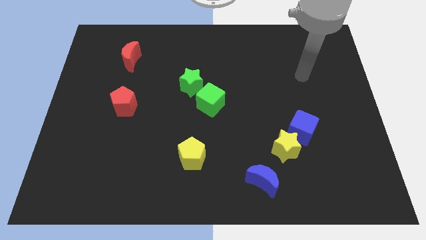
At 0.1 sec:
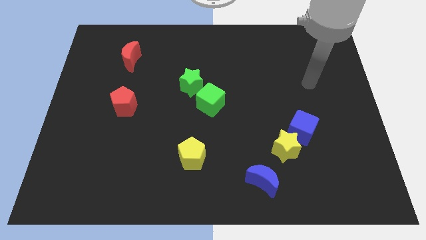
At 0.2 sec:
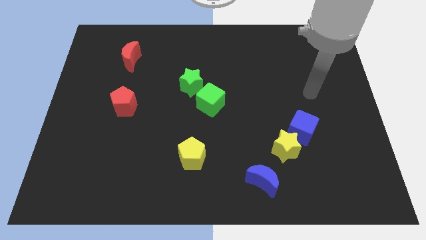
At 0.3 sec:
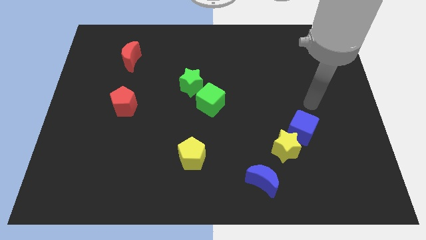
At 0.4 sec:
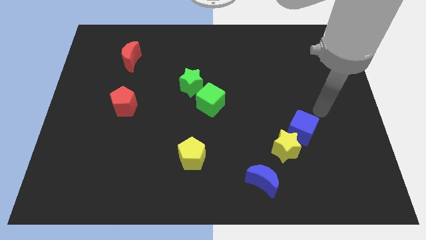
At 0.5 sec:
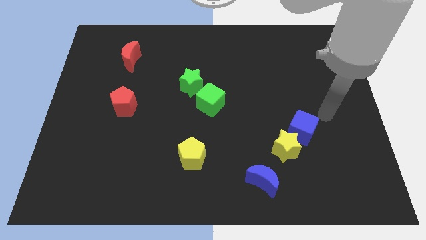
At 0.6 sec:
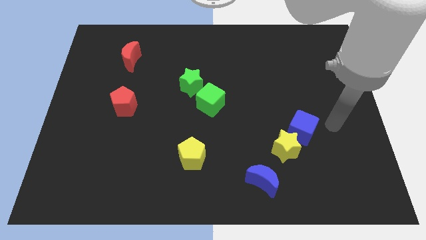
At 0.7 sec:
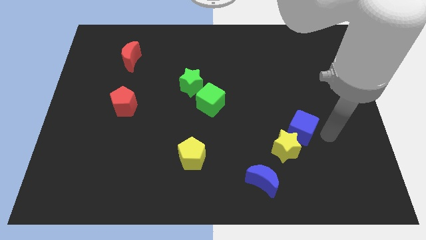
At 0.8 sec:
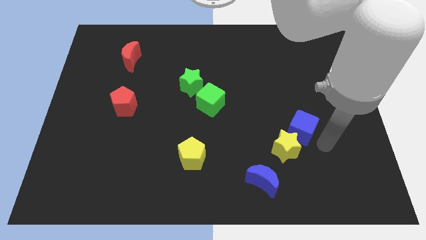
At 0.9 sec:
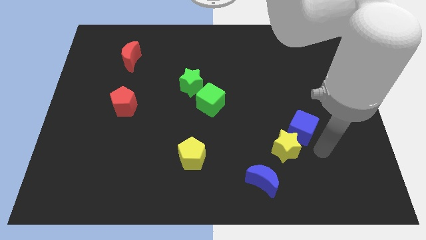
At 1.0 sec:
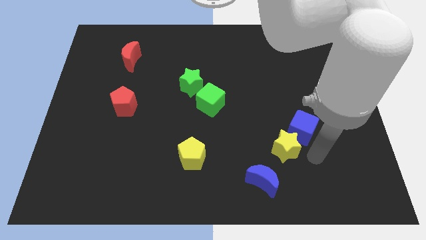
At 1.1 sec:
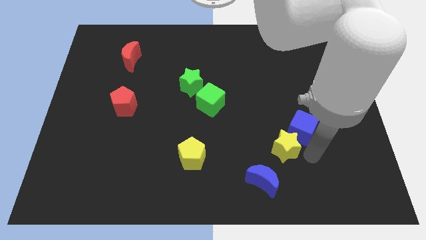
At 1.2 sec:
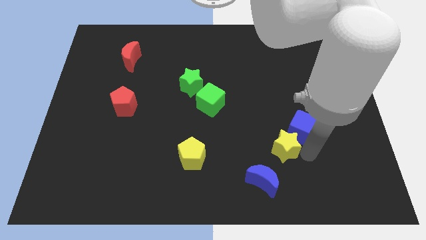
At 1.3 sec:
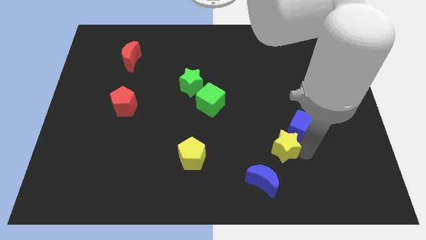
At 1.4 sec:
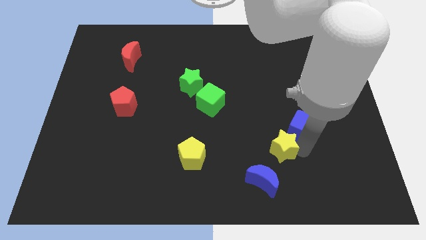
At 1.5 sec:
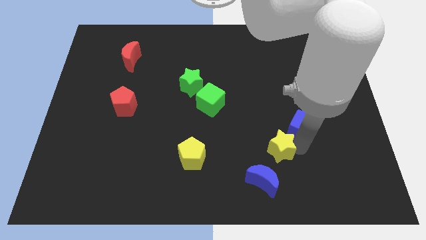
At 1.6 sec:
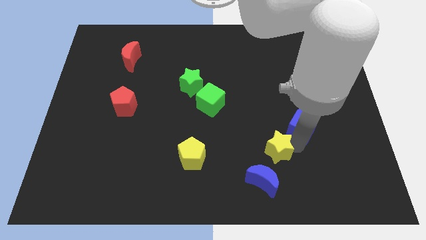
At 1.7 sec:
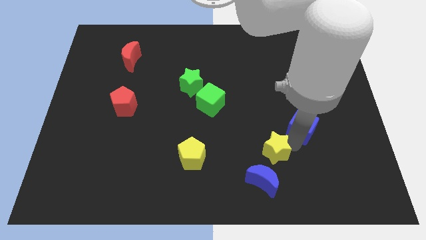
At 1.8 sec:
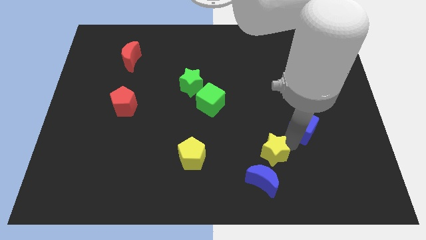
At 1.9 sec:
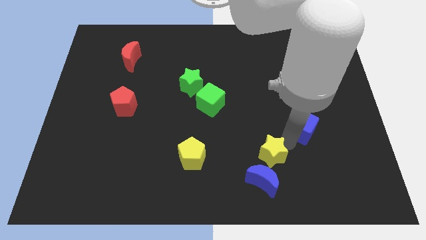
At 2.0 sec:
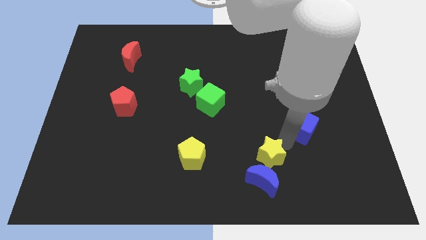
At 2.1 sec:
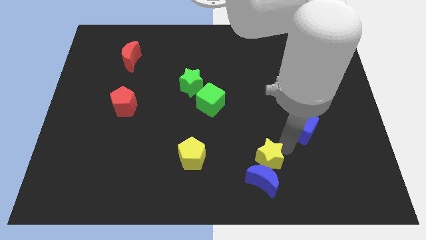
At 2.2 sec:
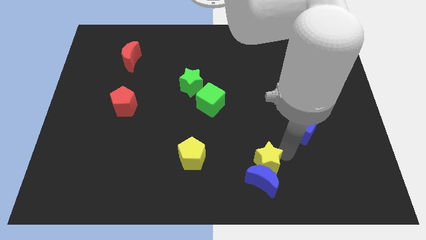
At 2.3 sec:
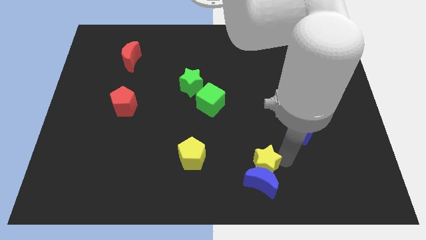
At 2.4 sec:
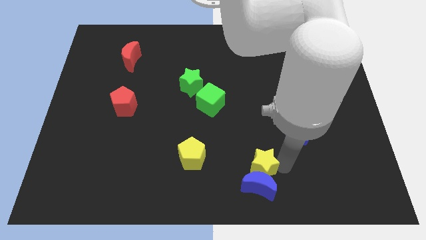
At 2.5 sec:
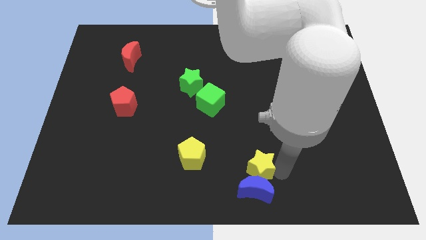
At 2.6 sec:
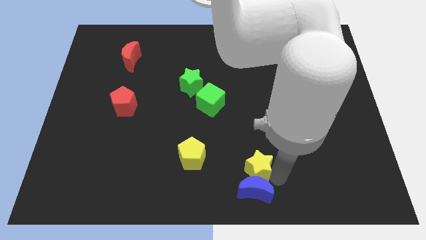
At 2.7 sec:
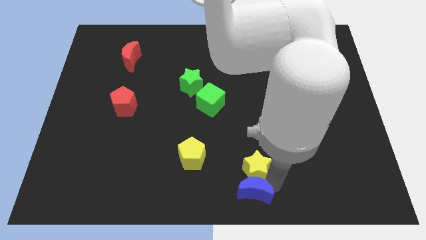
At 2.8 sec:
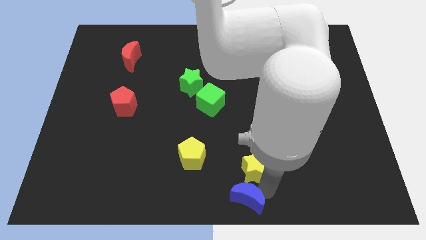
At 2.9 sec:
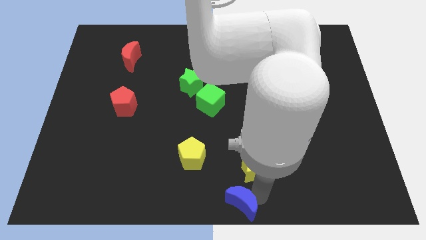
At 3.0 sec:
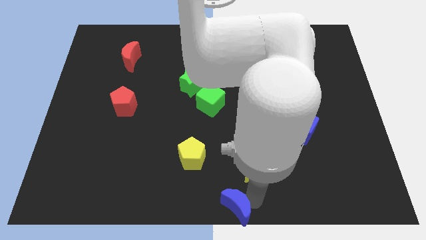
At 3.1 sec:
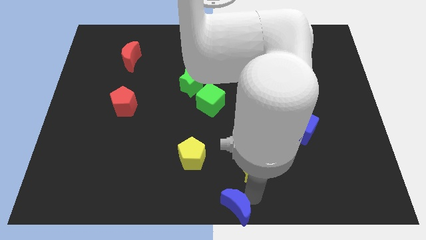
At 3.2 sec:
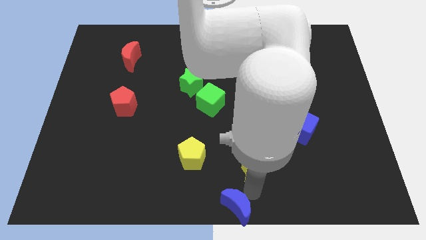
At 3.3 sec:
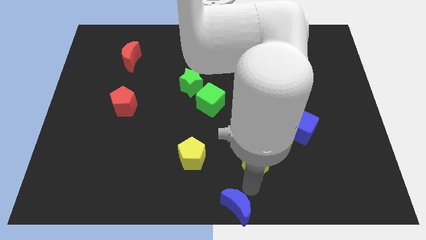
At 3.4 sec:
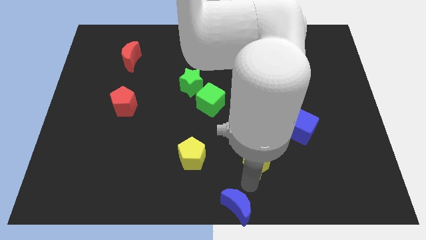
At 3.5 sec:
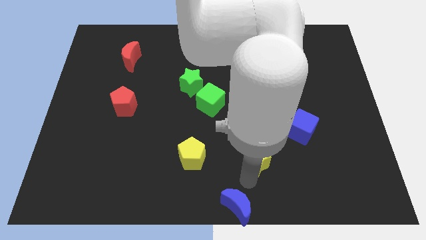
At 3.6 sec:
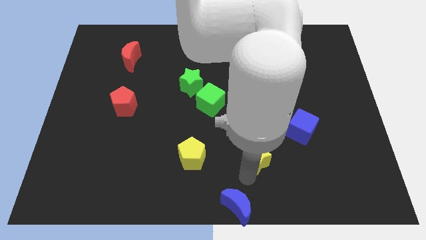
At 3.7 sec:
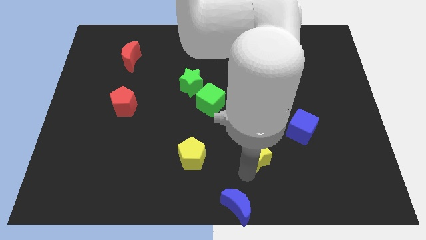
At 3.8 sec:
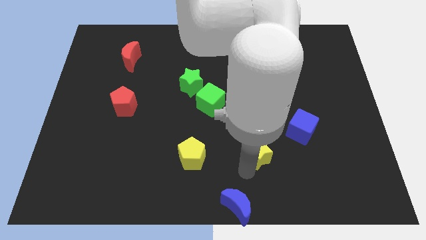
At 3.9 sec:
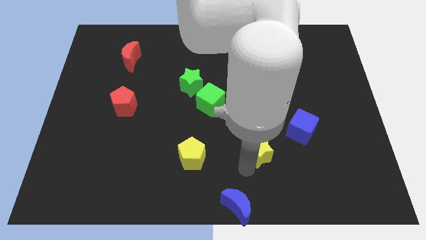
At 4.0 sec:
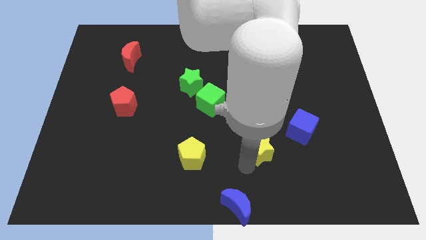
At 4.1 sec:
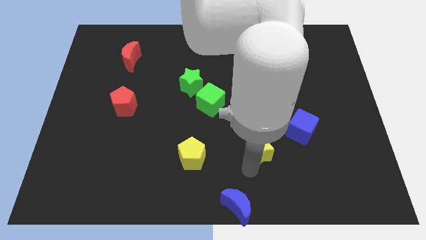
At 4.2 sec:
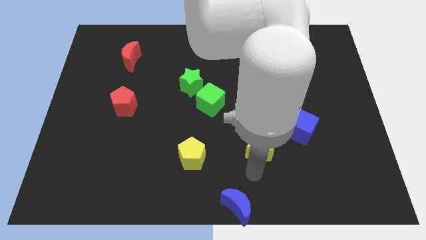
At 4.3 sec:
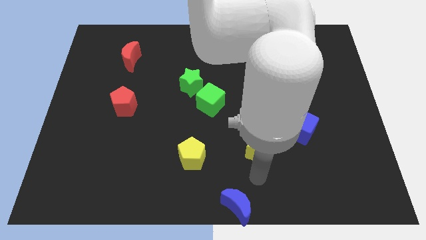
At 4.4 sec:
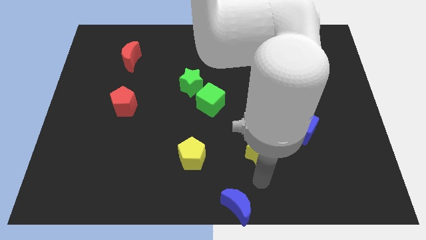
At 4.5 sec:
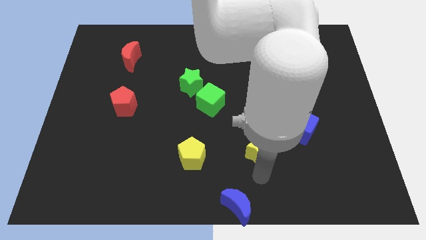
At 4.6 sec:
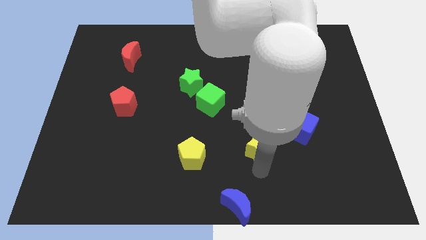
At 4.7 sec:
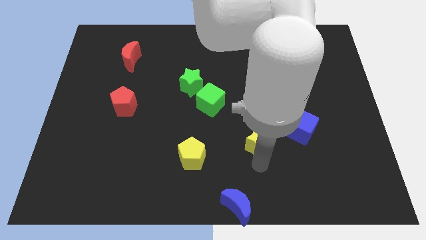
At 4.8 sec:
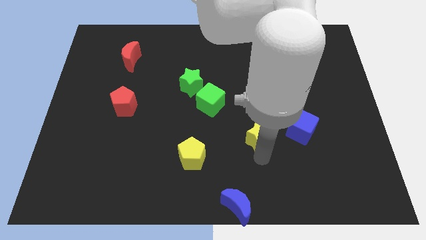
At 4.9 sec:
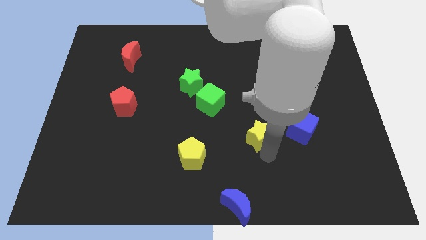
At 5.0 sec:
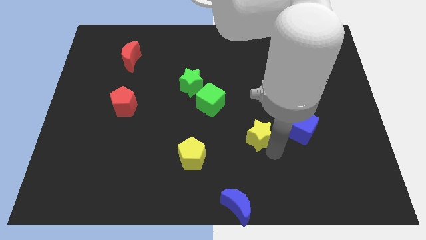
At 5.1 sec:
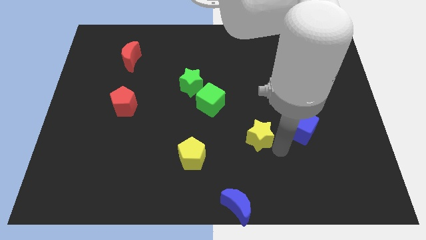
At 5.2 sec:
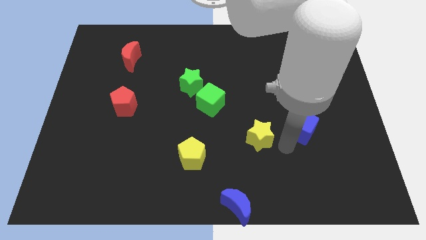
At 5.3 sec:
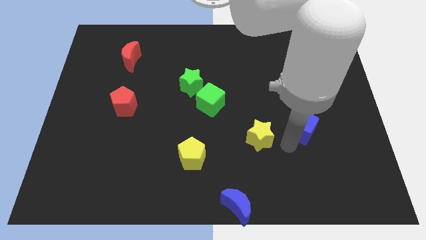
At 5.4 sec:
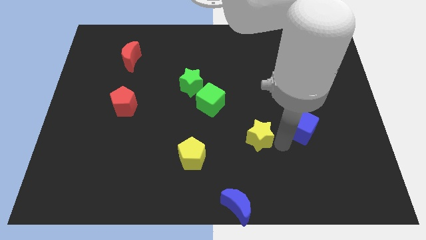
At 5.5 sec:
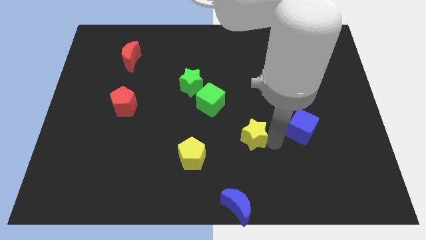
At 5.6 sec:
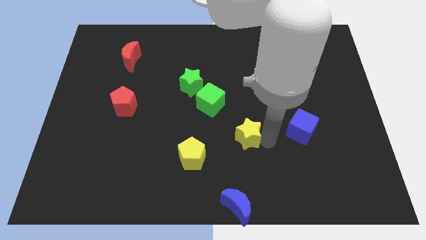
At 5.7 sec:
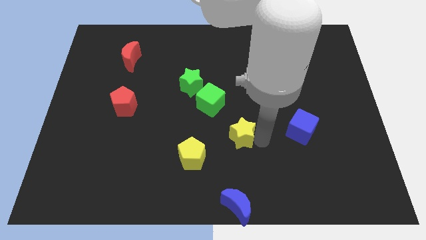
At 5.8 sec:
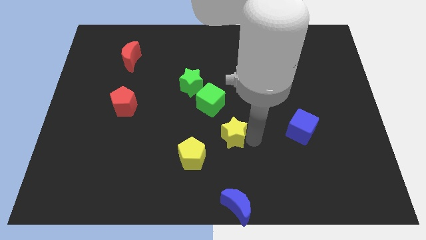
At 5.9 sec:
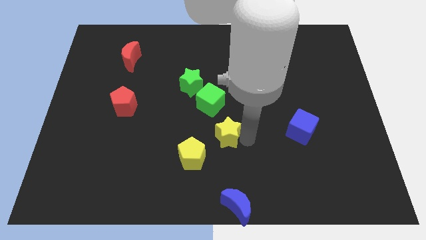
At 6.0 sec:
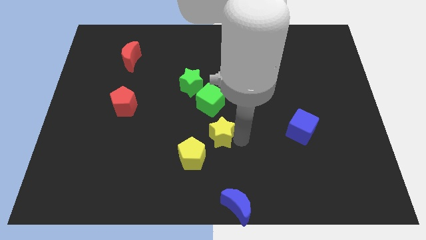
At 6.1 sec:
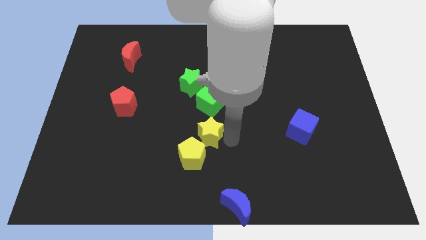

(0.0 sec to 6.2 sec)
slide the yellow star above the yellow pentagon
